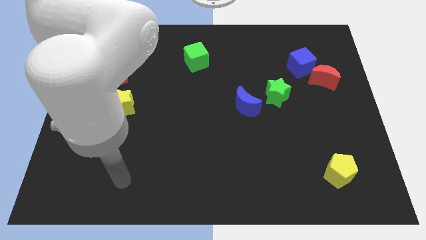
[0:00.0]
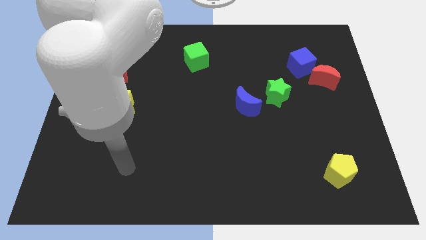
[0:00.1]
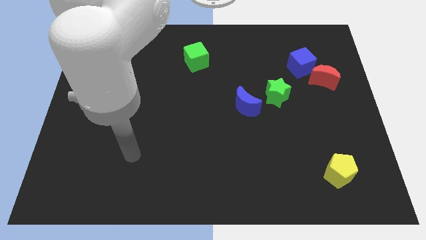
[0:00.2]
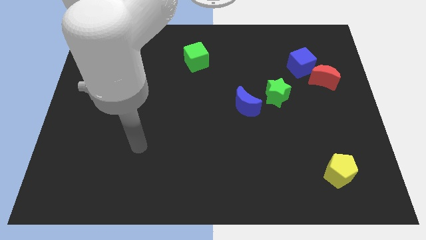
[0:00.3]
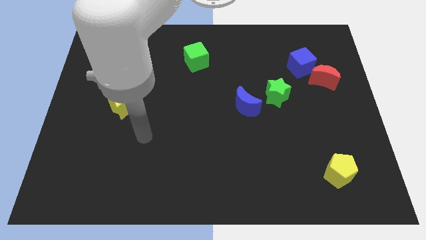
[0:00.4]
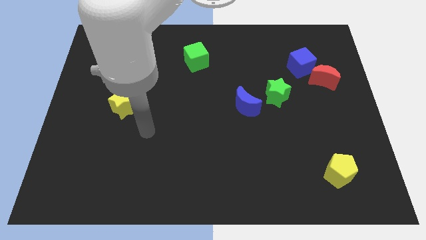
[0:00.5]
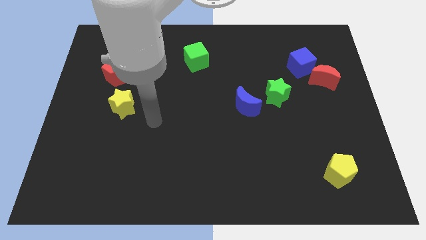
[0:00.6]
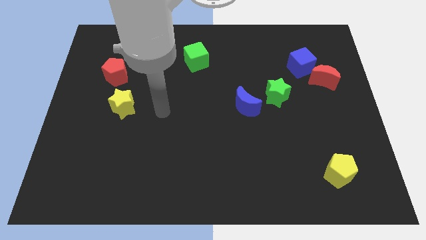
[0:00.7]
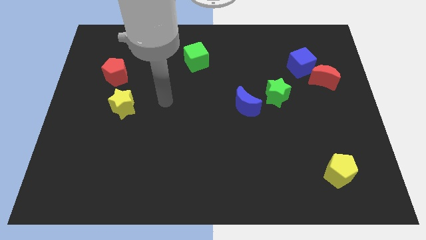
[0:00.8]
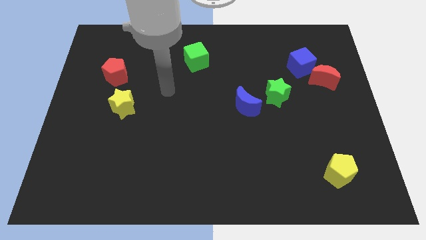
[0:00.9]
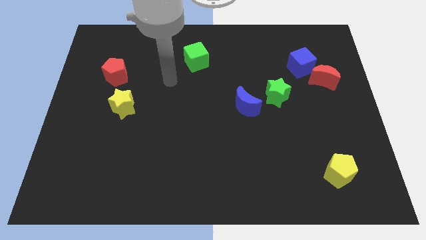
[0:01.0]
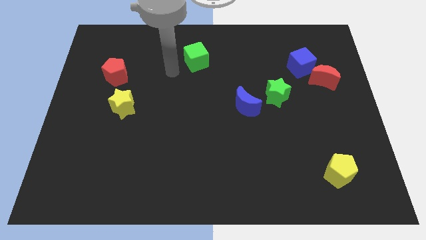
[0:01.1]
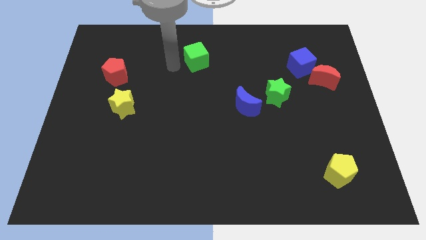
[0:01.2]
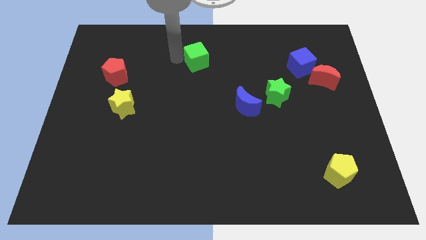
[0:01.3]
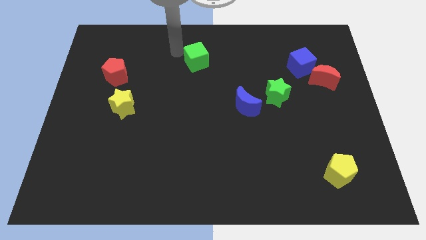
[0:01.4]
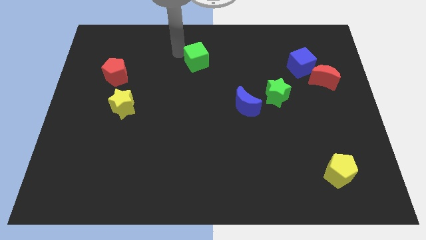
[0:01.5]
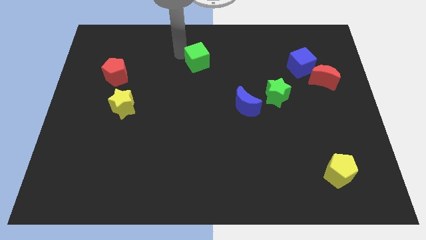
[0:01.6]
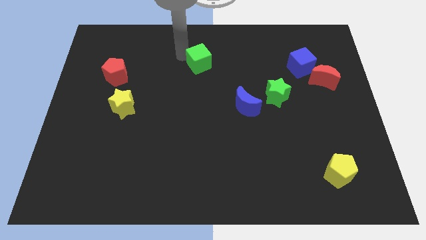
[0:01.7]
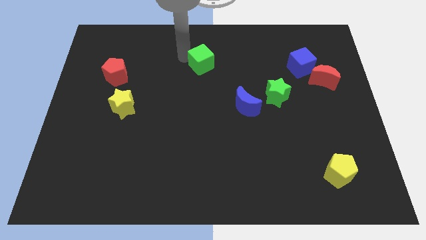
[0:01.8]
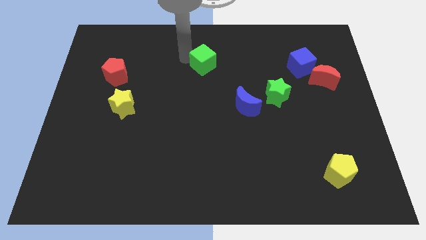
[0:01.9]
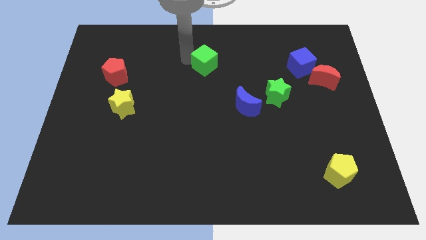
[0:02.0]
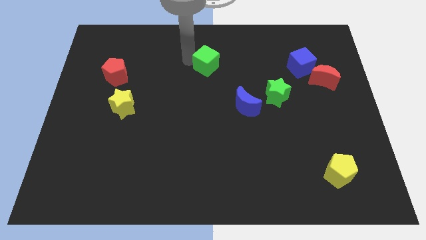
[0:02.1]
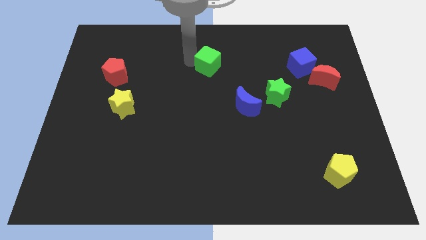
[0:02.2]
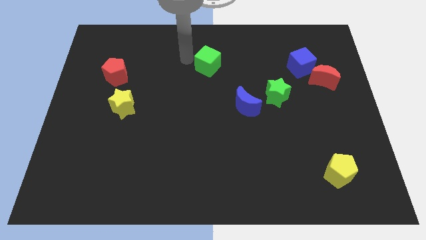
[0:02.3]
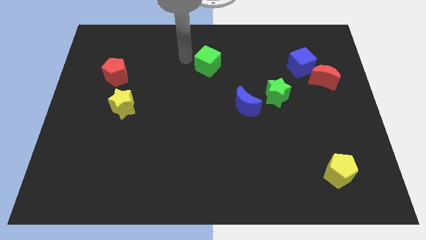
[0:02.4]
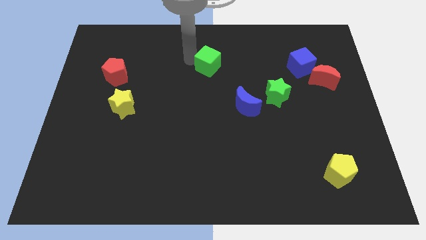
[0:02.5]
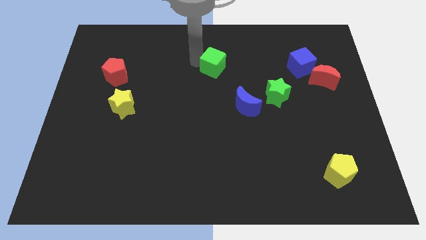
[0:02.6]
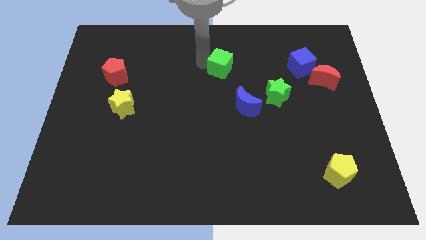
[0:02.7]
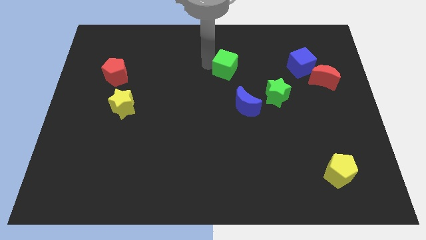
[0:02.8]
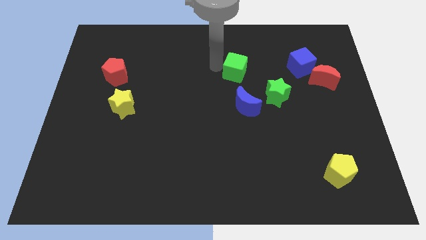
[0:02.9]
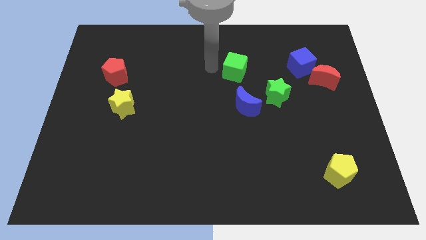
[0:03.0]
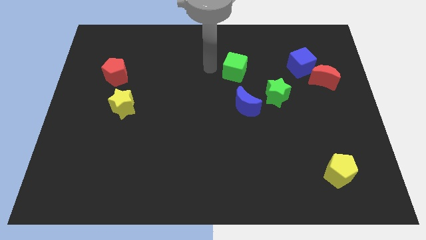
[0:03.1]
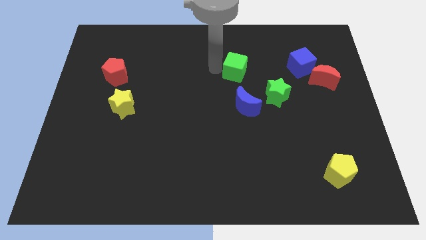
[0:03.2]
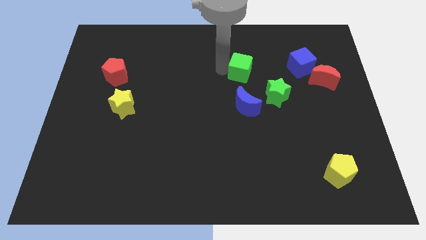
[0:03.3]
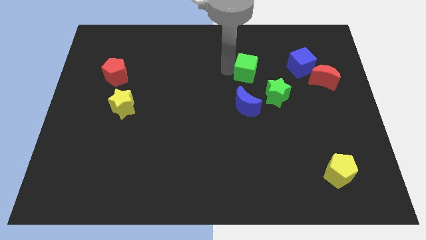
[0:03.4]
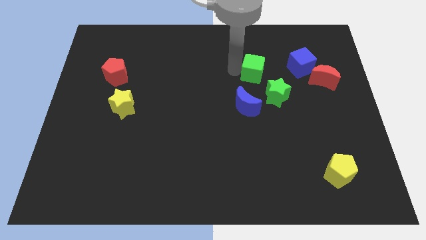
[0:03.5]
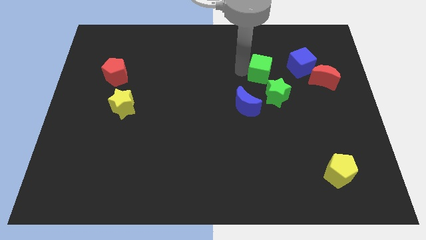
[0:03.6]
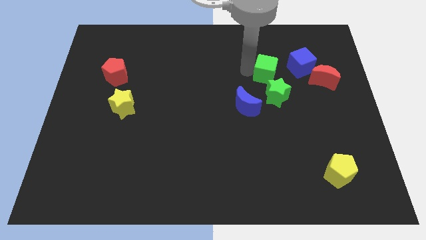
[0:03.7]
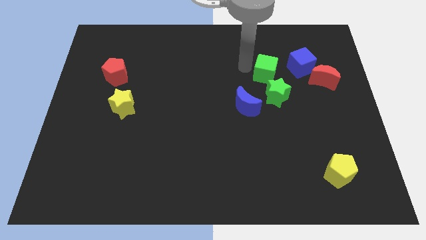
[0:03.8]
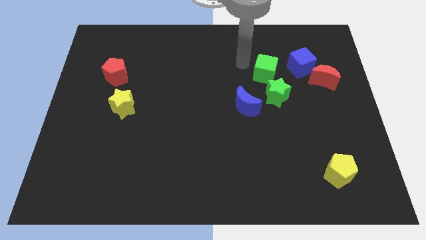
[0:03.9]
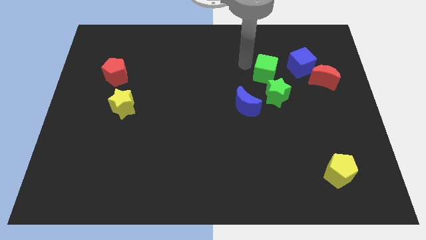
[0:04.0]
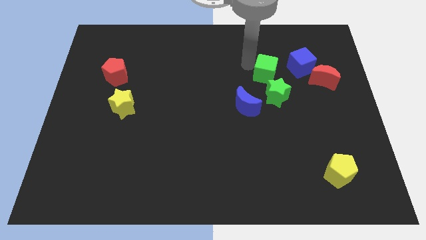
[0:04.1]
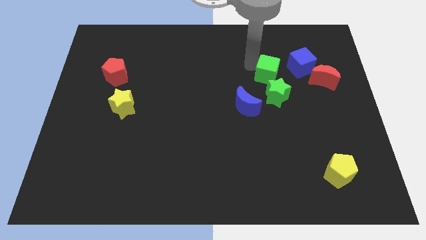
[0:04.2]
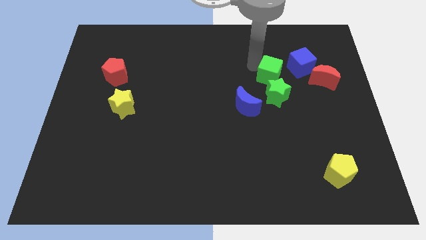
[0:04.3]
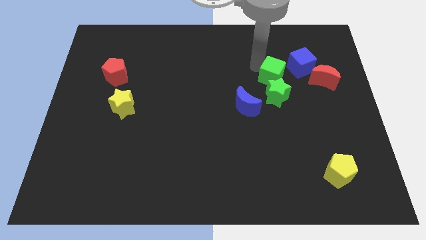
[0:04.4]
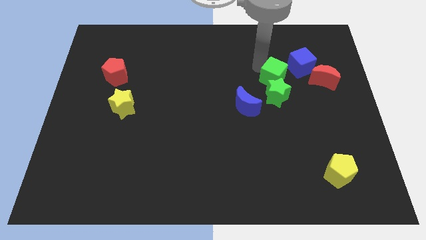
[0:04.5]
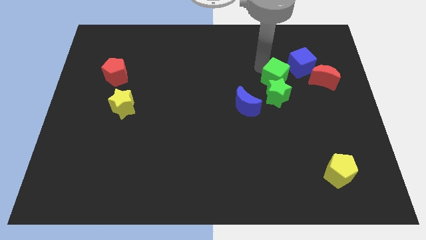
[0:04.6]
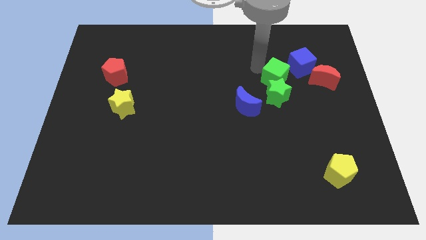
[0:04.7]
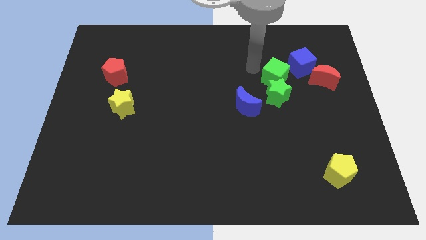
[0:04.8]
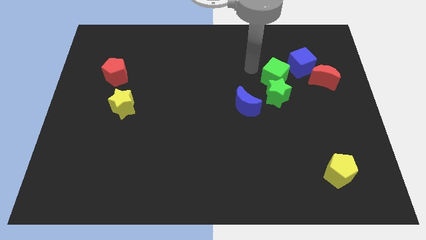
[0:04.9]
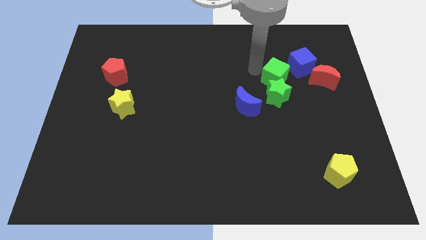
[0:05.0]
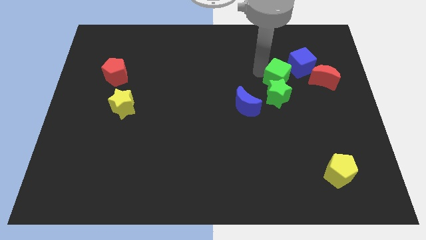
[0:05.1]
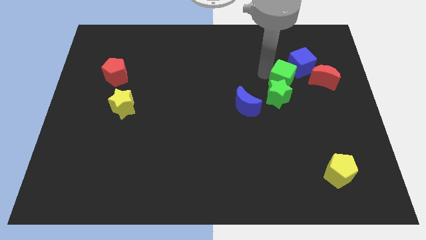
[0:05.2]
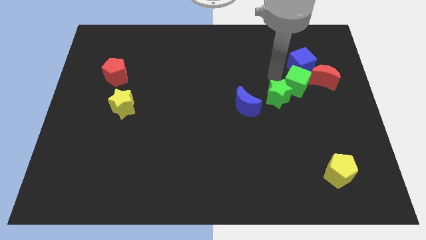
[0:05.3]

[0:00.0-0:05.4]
put the green cube to the right side of the green star

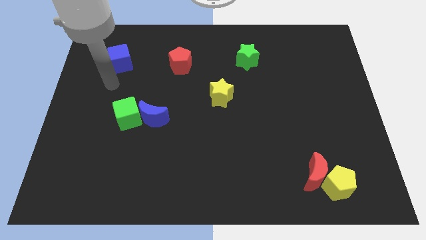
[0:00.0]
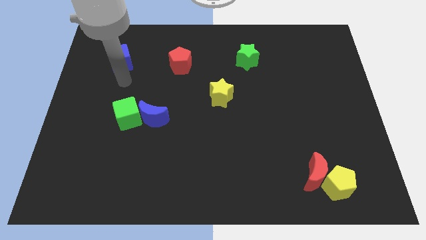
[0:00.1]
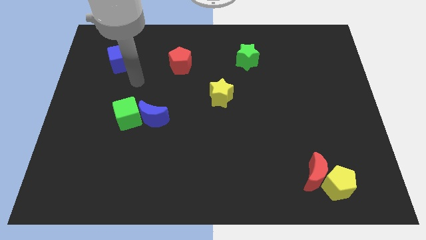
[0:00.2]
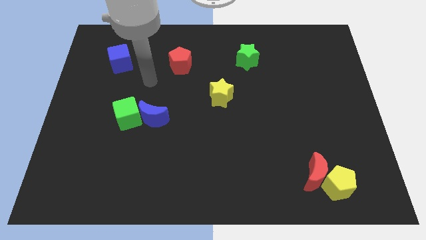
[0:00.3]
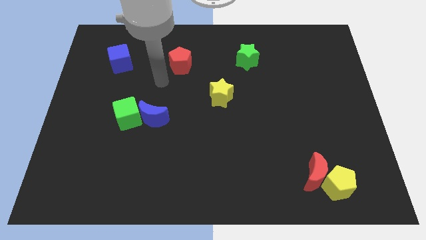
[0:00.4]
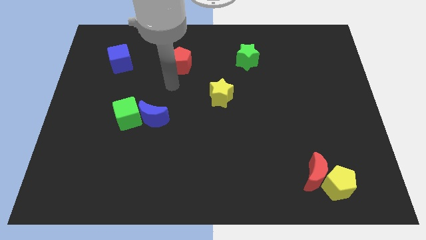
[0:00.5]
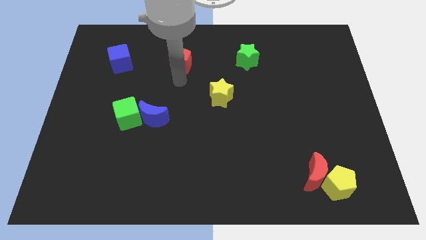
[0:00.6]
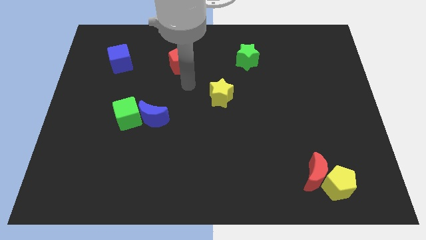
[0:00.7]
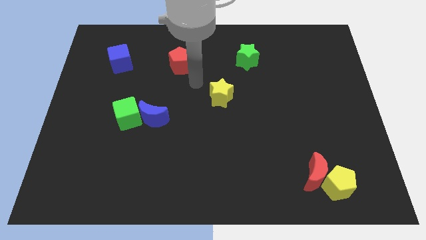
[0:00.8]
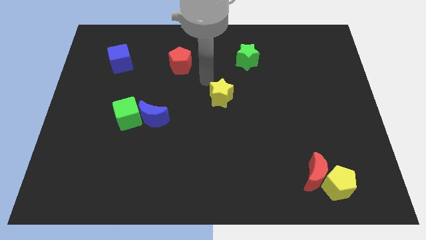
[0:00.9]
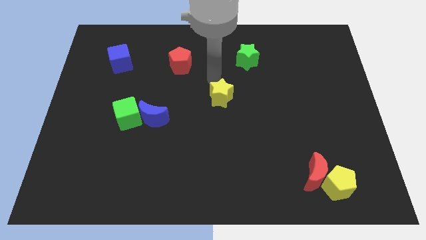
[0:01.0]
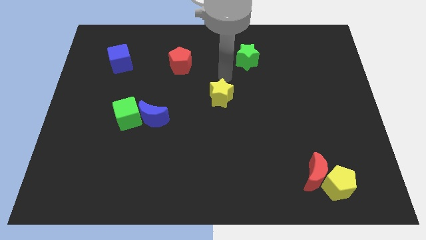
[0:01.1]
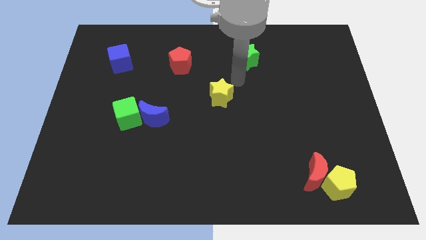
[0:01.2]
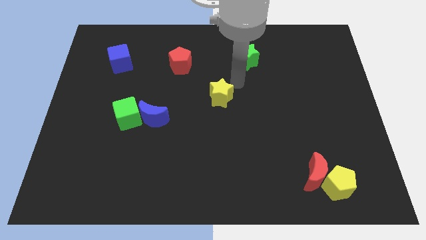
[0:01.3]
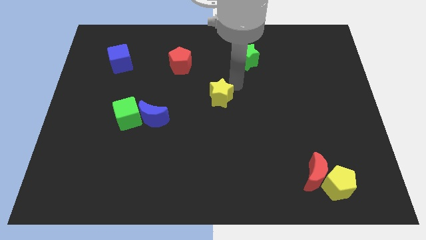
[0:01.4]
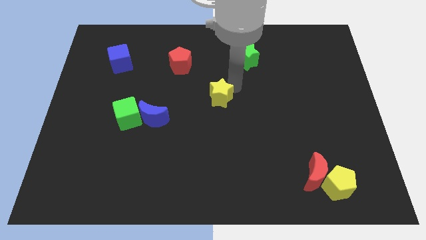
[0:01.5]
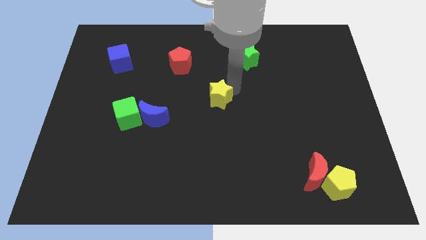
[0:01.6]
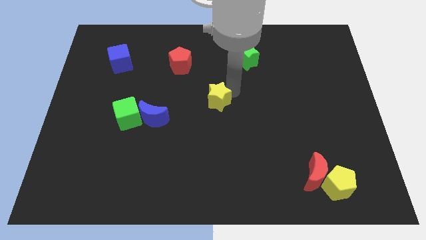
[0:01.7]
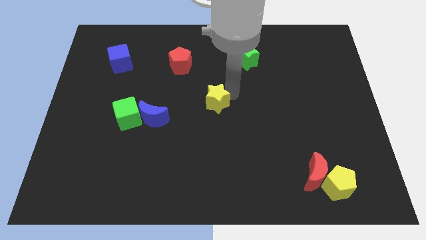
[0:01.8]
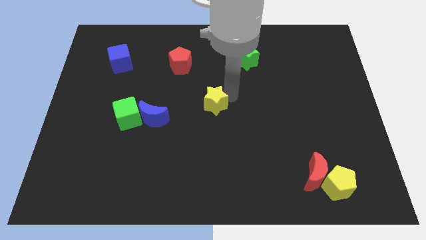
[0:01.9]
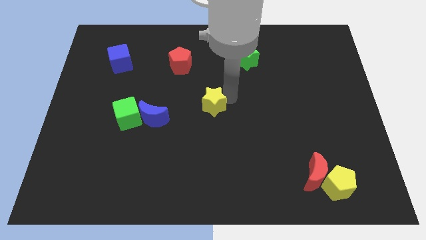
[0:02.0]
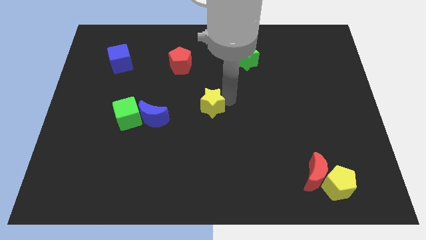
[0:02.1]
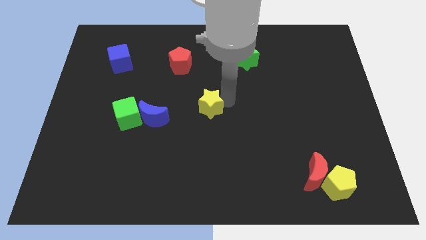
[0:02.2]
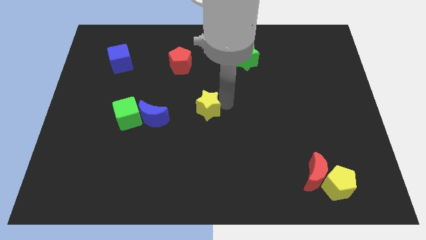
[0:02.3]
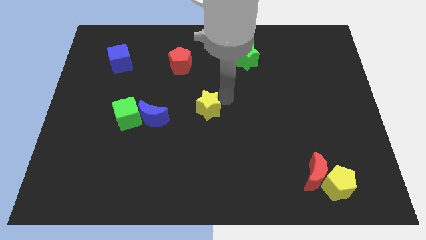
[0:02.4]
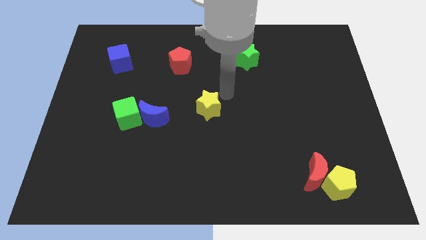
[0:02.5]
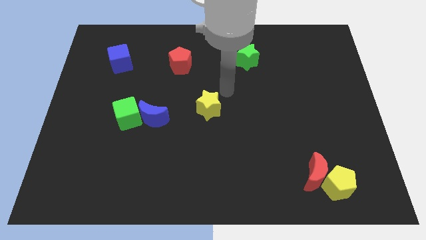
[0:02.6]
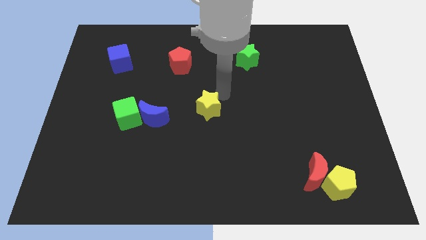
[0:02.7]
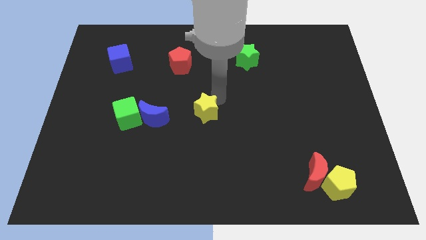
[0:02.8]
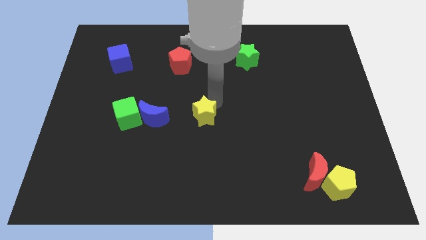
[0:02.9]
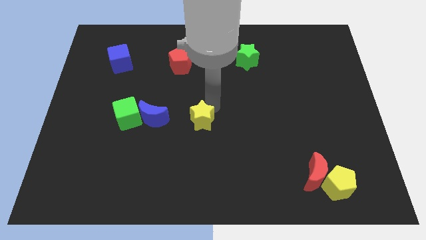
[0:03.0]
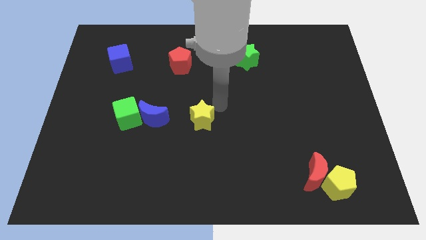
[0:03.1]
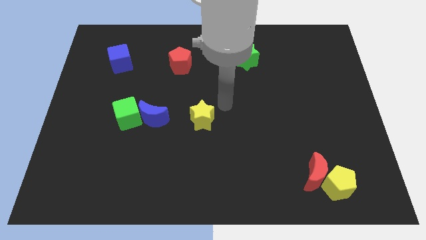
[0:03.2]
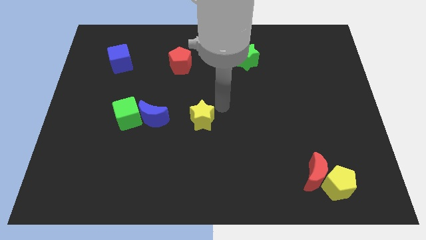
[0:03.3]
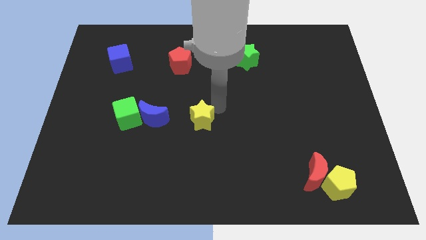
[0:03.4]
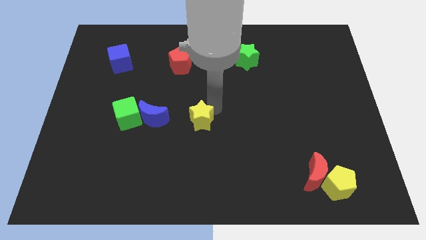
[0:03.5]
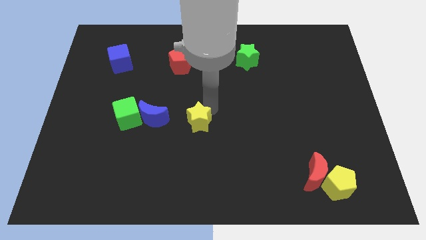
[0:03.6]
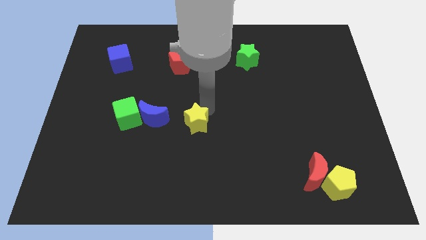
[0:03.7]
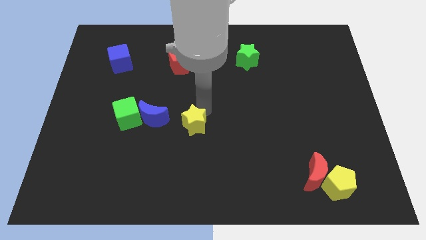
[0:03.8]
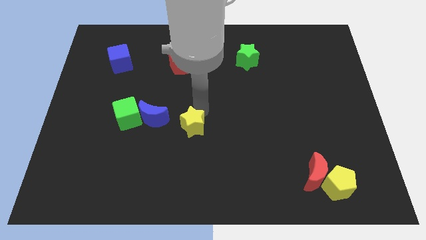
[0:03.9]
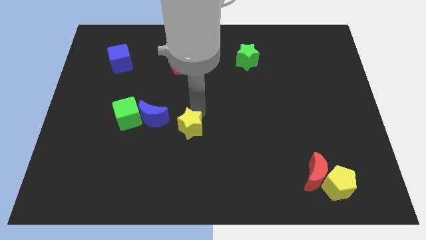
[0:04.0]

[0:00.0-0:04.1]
move the yellow star to the bottom right side of the blue moon
